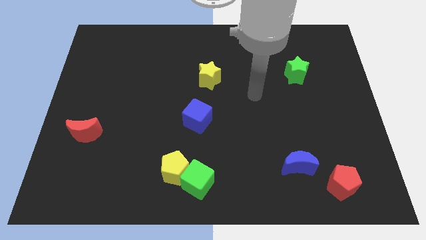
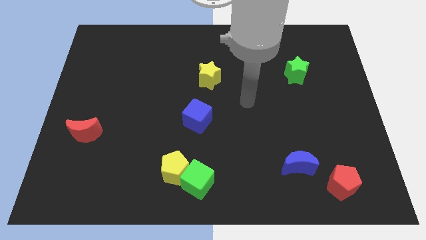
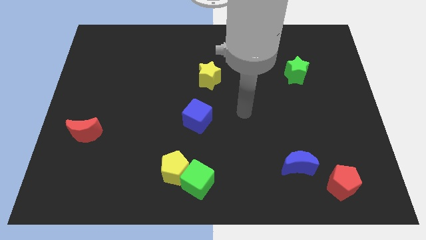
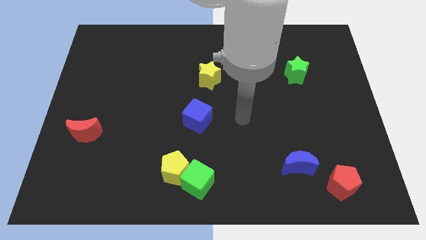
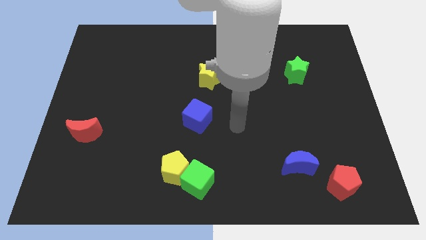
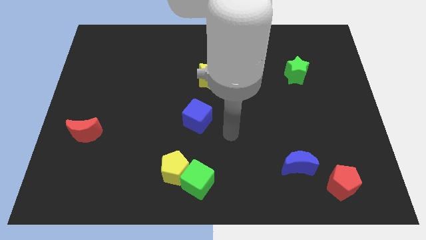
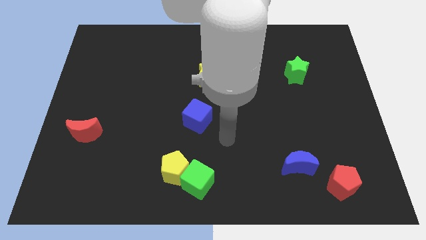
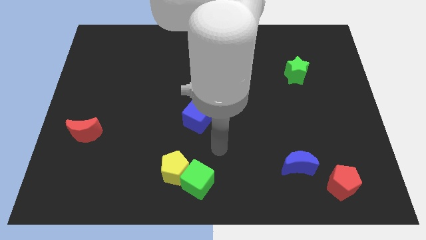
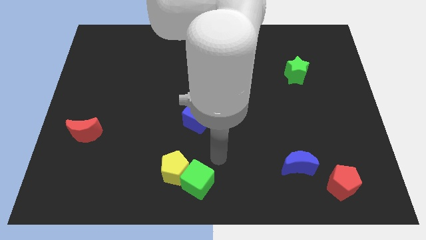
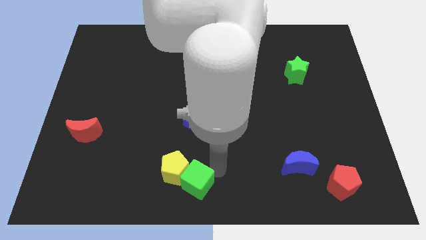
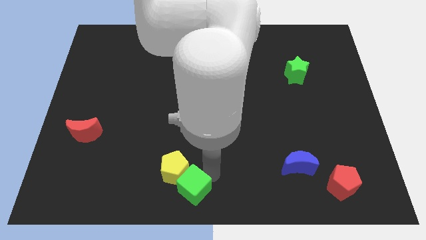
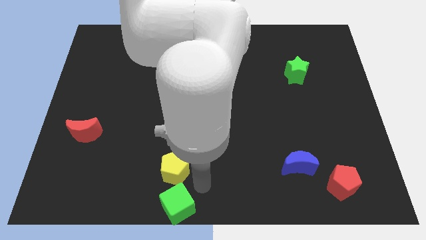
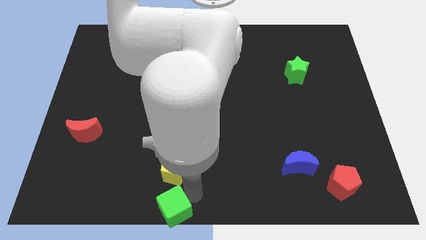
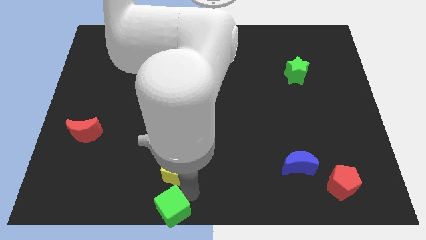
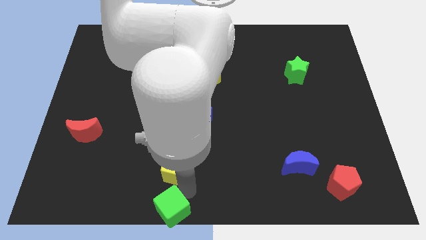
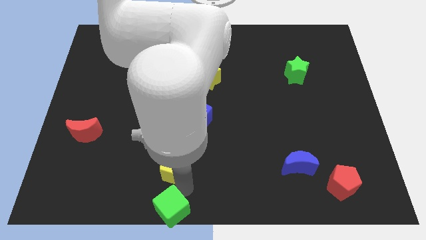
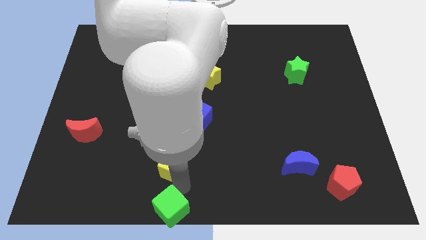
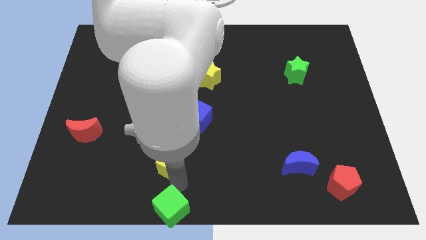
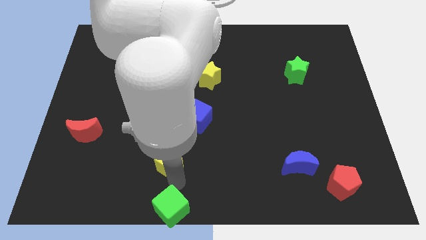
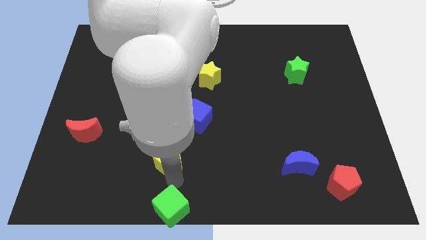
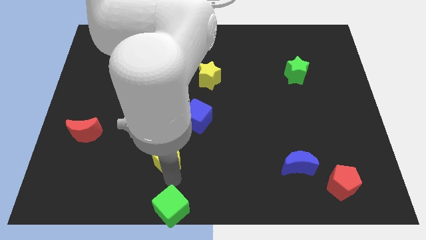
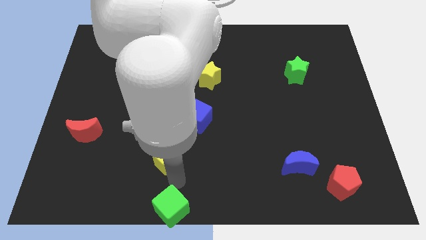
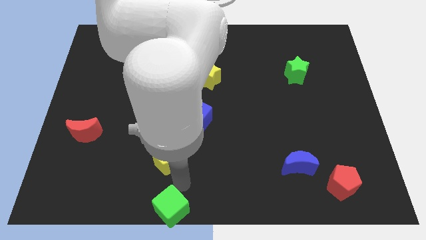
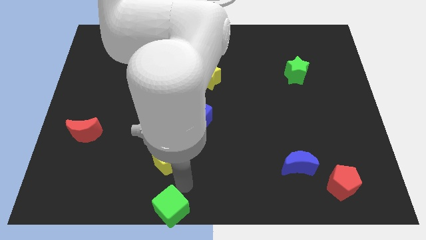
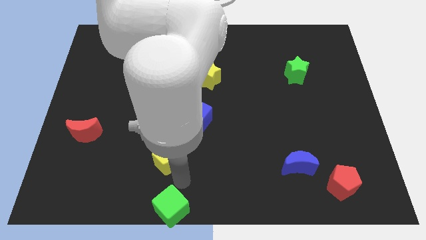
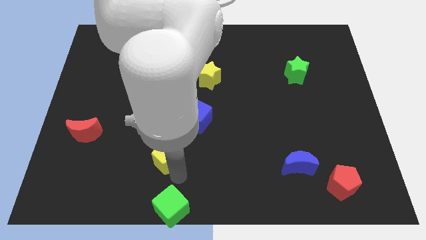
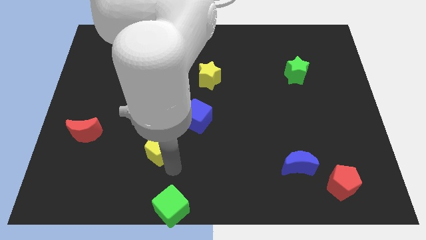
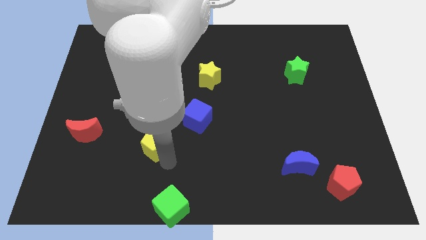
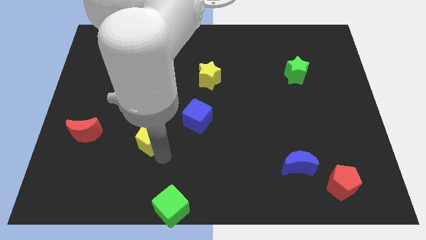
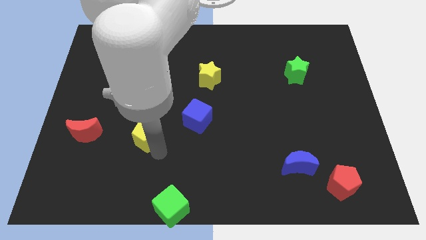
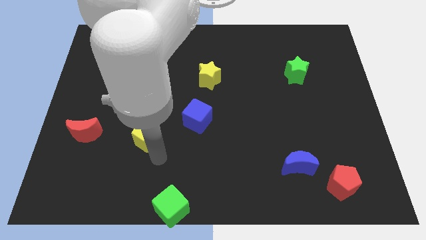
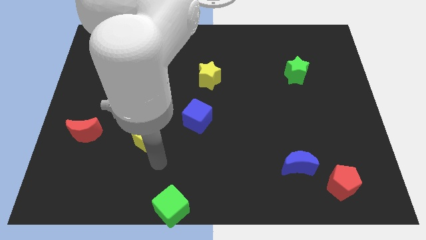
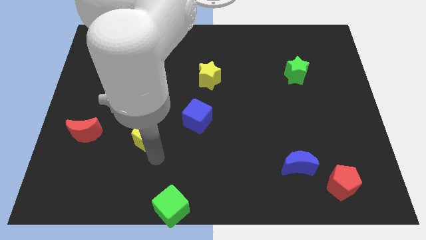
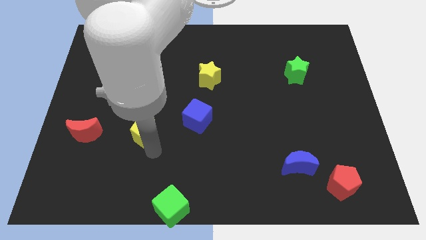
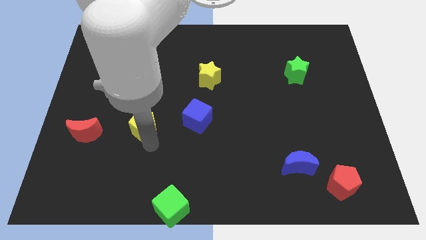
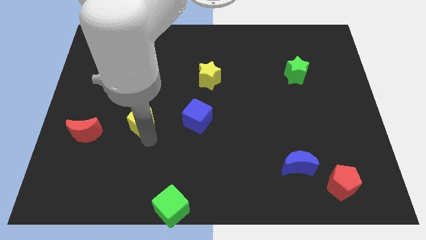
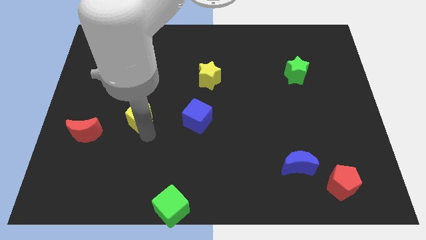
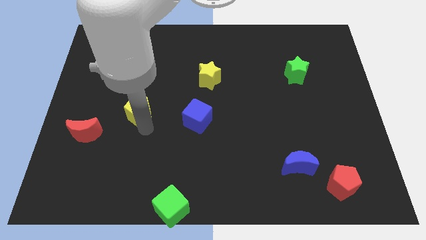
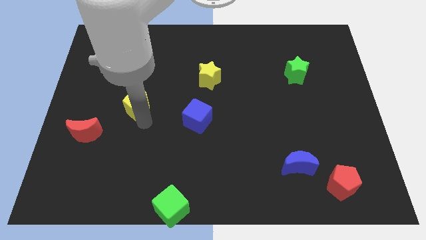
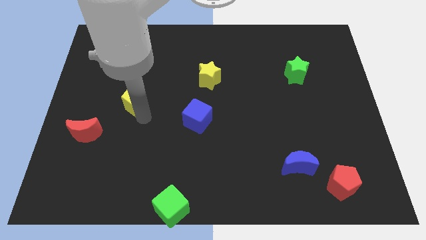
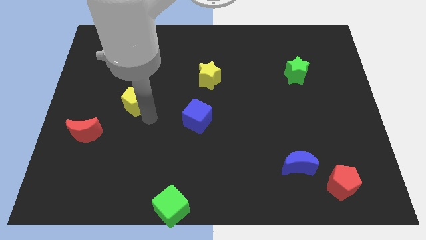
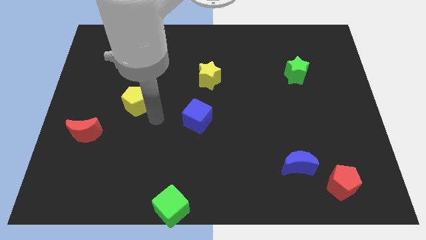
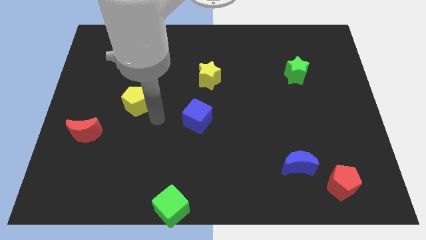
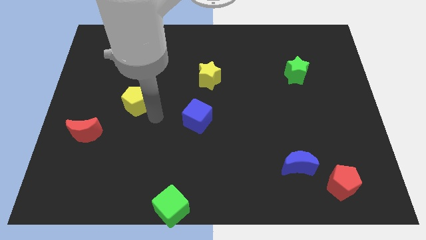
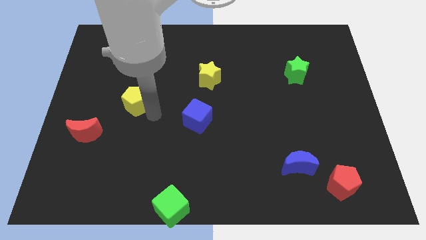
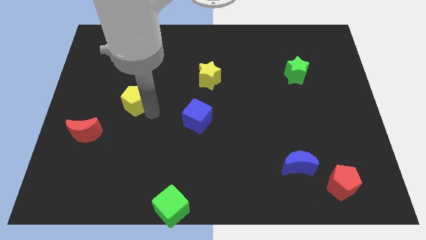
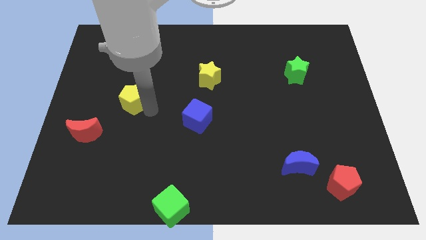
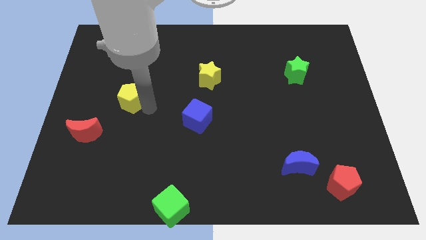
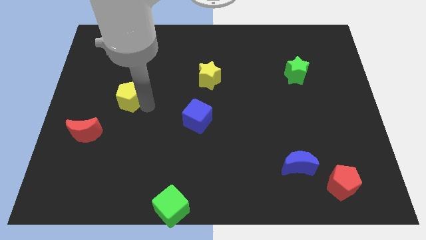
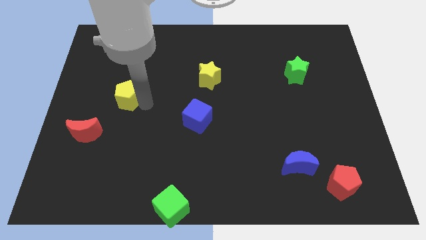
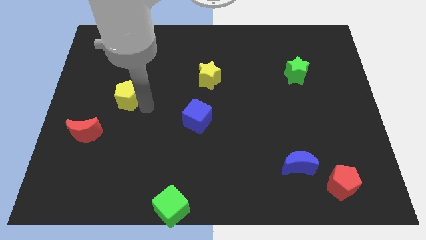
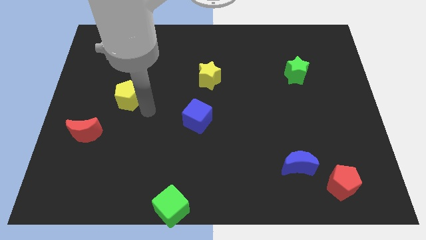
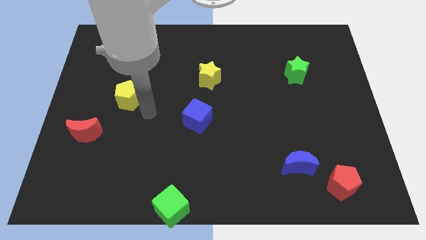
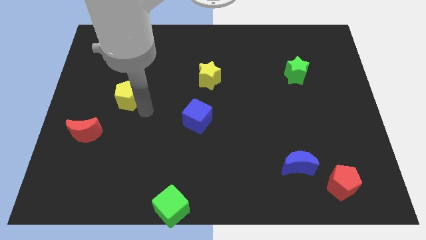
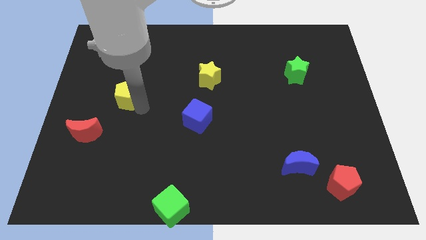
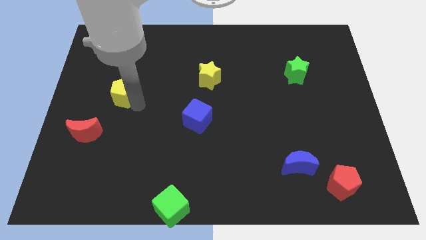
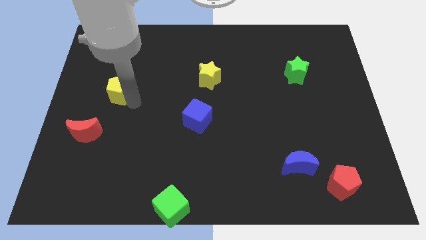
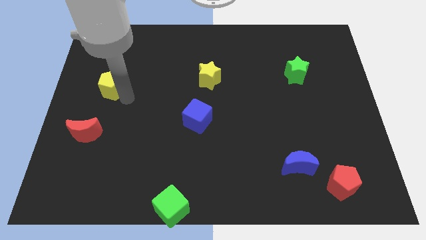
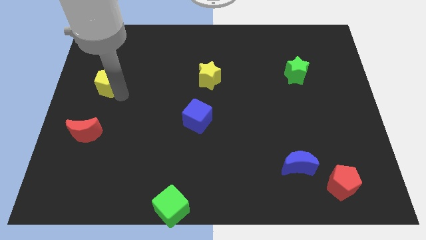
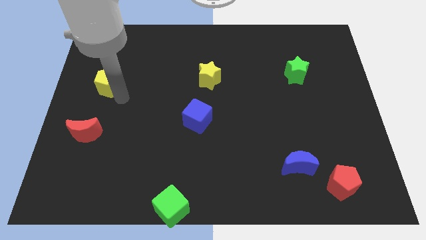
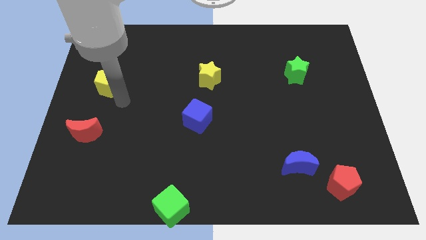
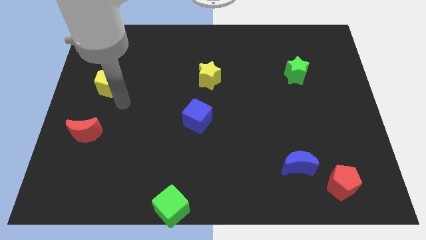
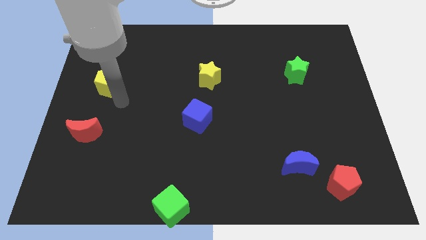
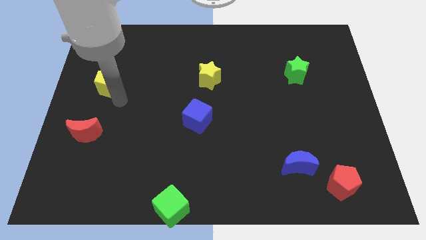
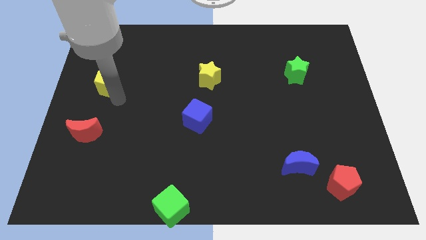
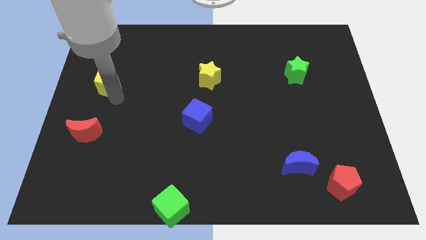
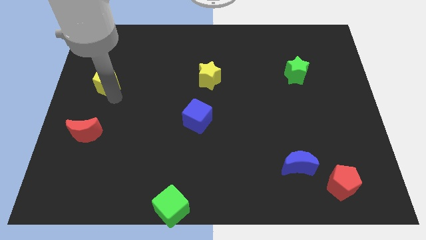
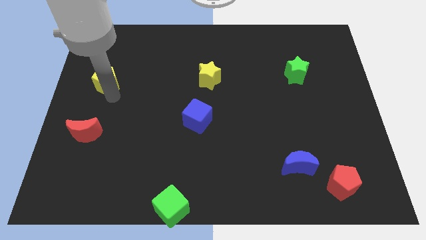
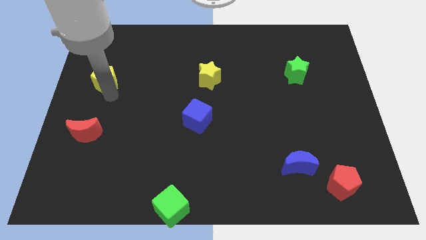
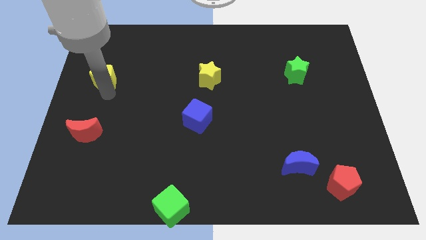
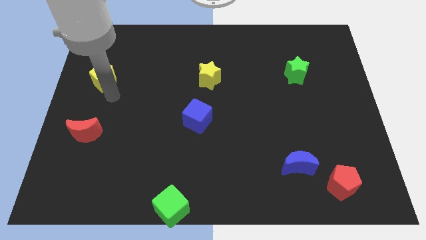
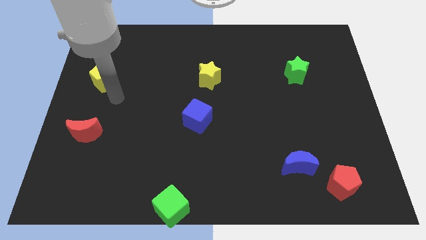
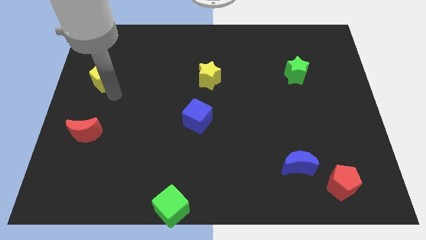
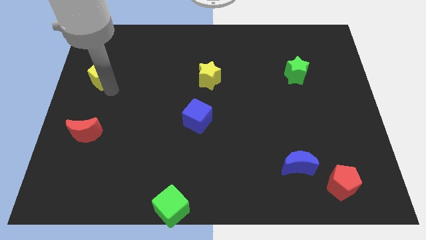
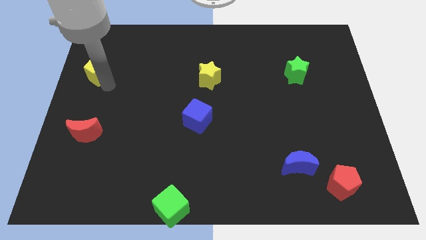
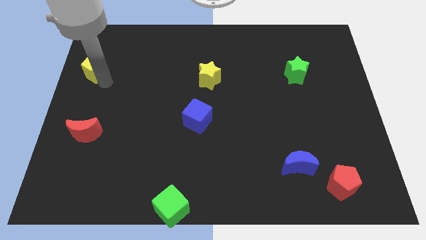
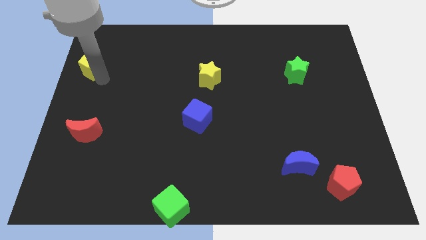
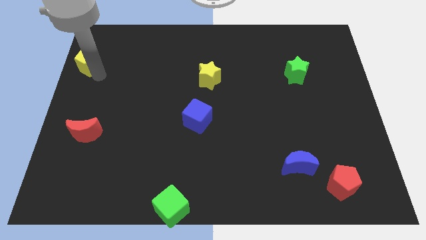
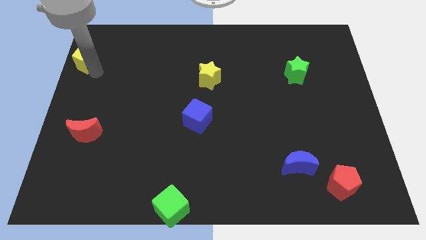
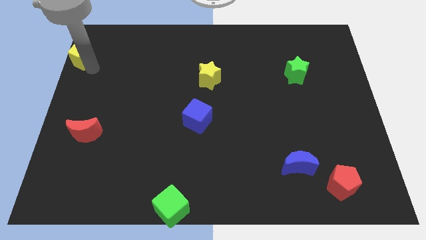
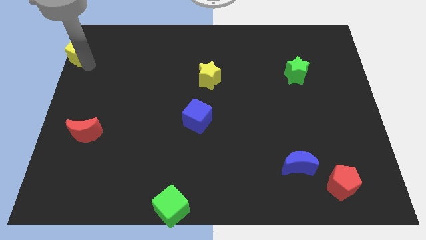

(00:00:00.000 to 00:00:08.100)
move the yellow pentagon to the top left of the board
